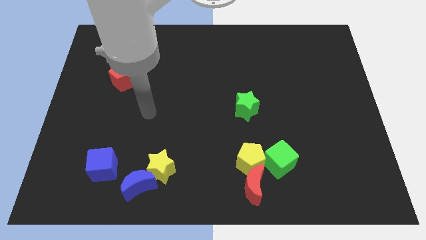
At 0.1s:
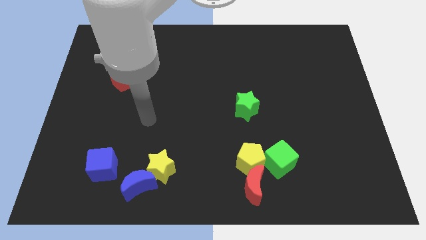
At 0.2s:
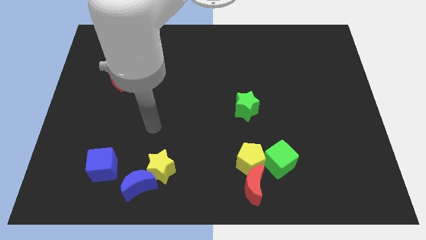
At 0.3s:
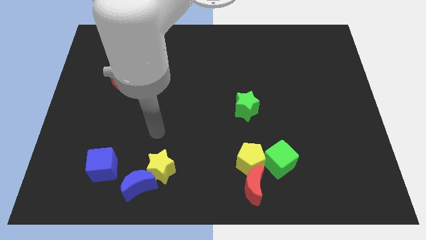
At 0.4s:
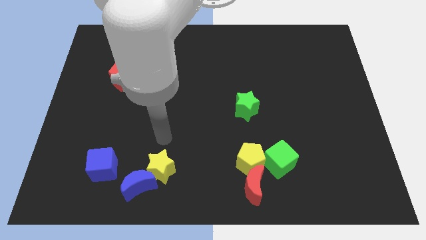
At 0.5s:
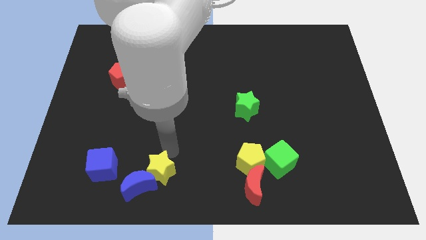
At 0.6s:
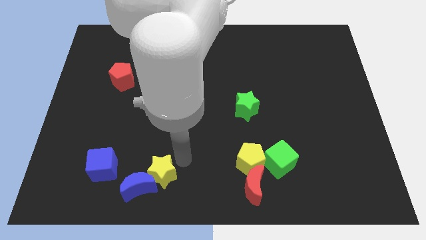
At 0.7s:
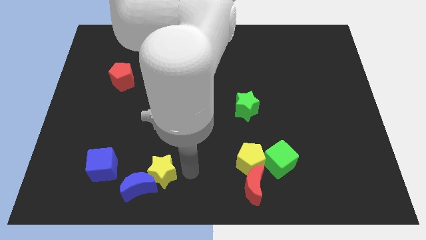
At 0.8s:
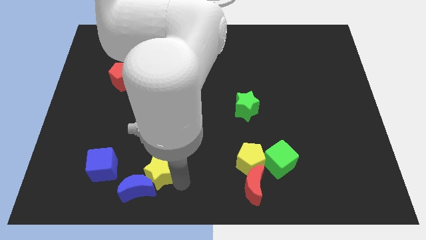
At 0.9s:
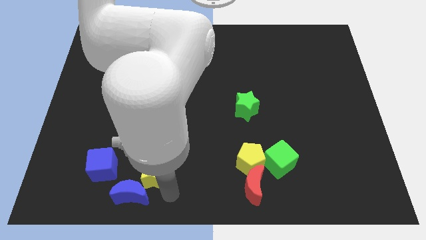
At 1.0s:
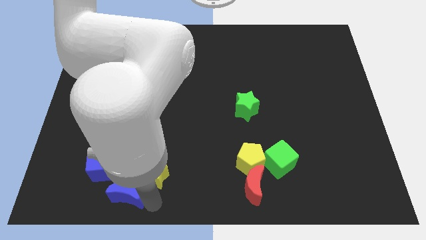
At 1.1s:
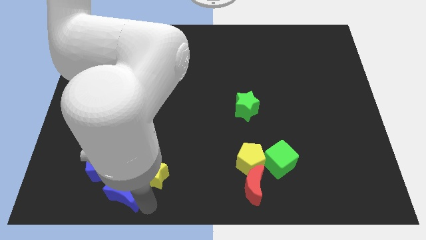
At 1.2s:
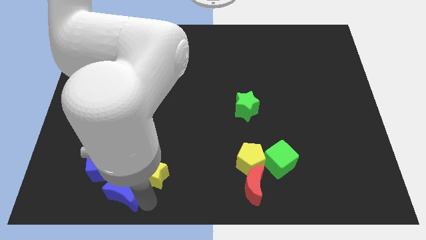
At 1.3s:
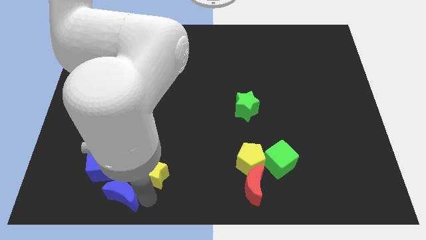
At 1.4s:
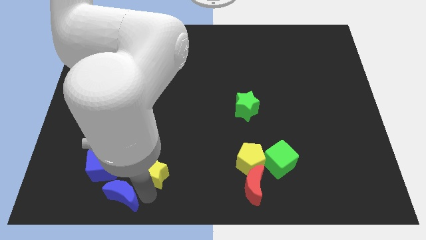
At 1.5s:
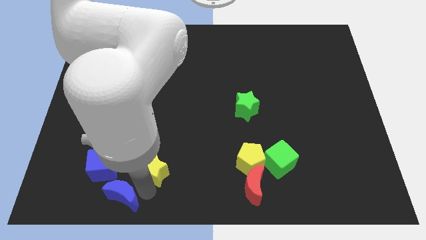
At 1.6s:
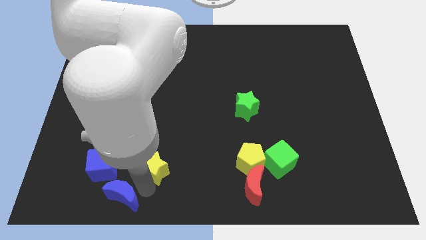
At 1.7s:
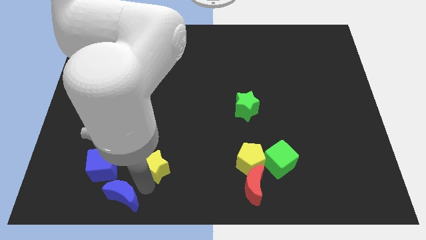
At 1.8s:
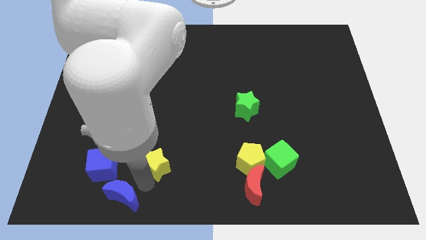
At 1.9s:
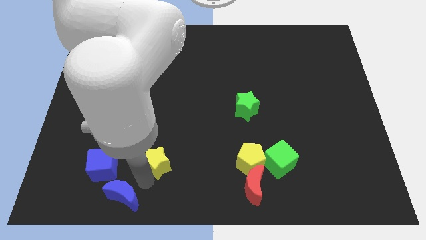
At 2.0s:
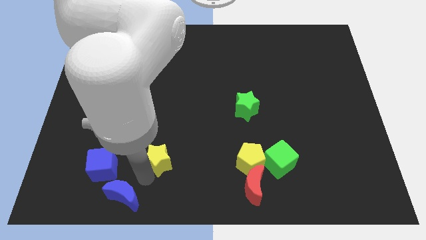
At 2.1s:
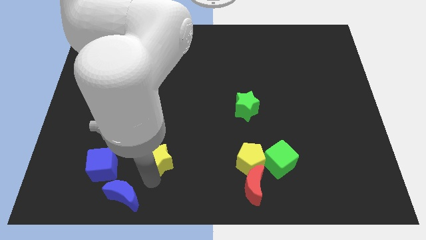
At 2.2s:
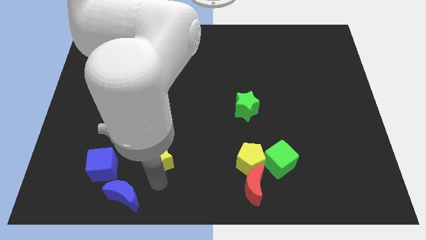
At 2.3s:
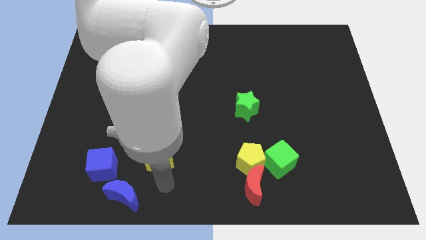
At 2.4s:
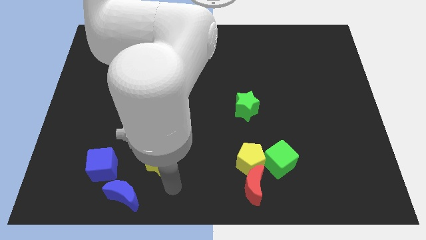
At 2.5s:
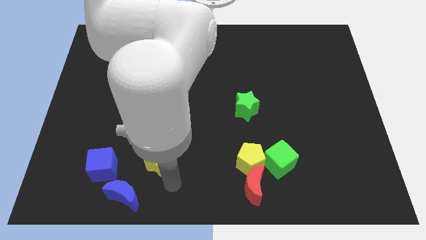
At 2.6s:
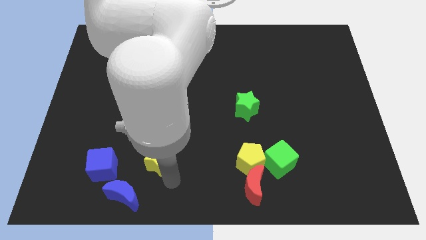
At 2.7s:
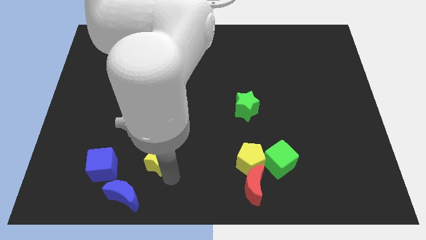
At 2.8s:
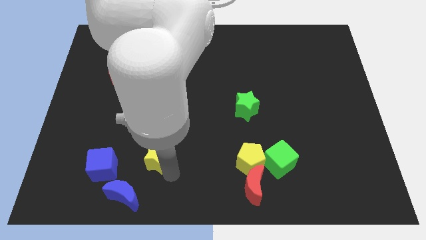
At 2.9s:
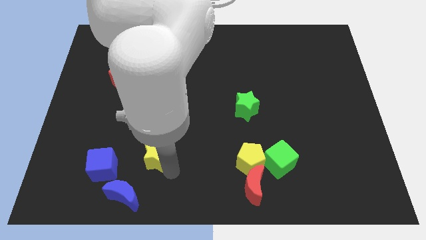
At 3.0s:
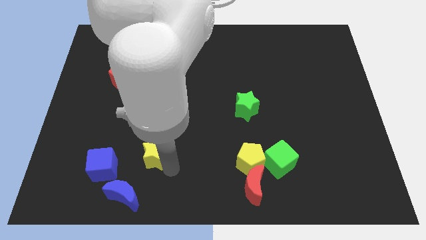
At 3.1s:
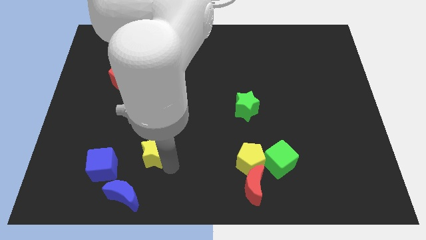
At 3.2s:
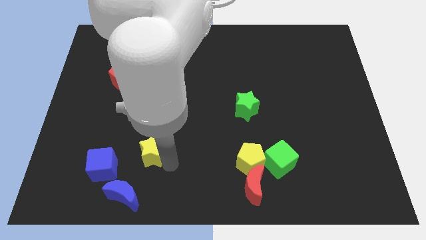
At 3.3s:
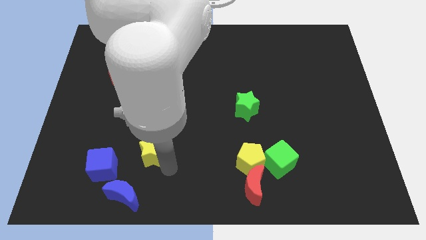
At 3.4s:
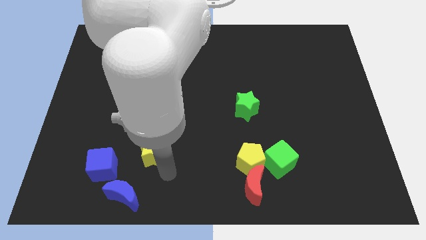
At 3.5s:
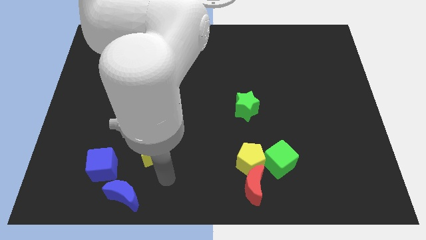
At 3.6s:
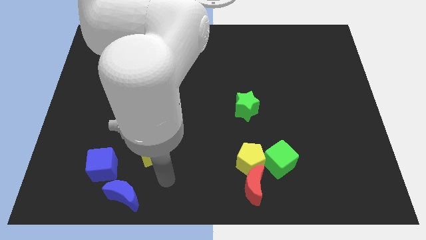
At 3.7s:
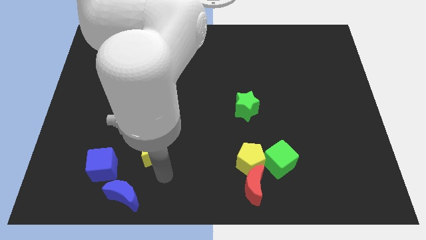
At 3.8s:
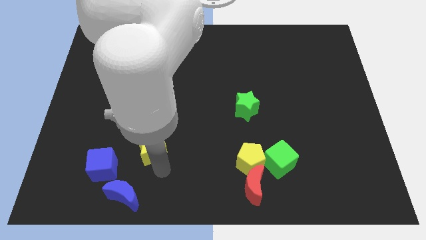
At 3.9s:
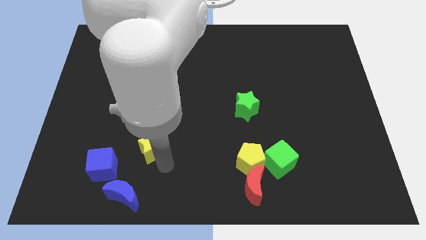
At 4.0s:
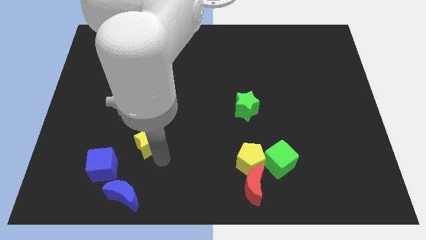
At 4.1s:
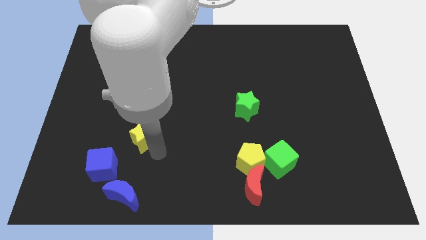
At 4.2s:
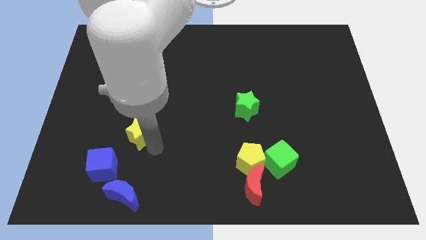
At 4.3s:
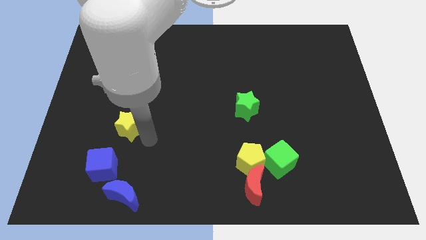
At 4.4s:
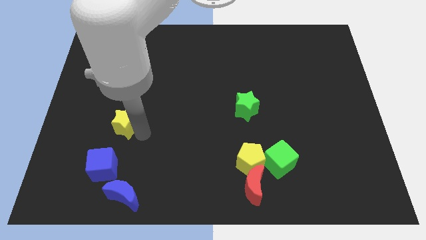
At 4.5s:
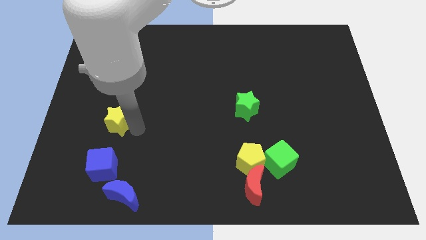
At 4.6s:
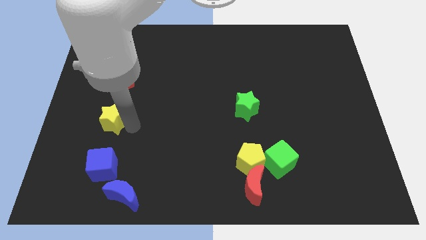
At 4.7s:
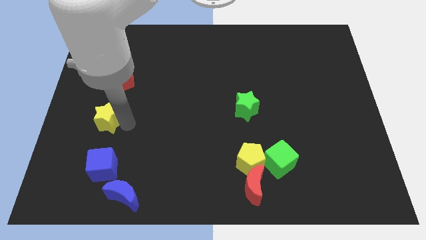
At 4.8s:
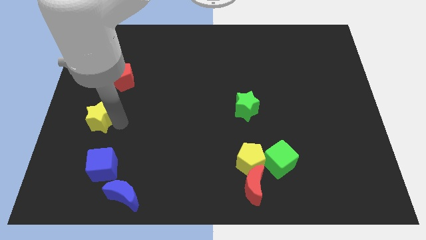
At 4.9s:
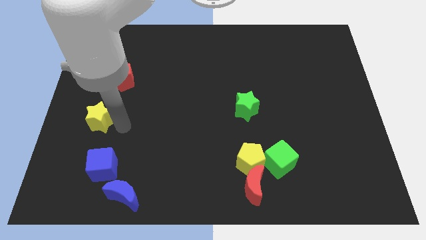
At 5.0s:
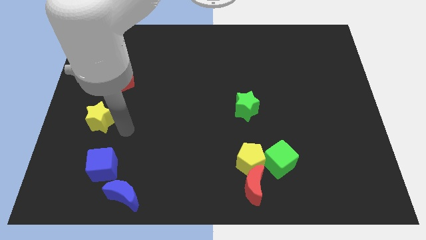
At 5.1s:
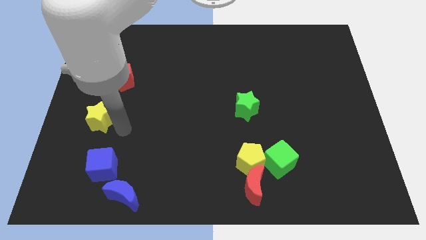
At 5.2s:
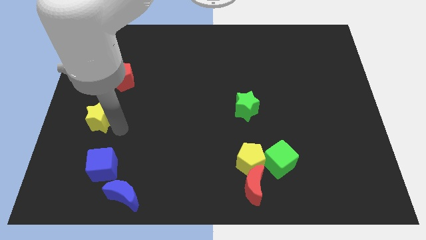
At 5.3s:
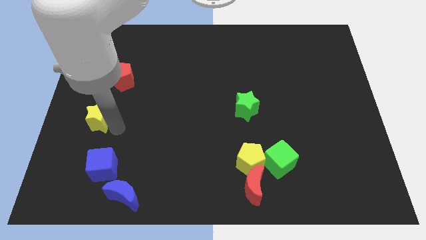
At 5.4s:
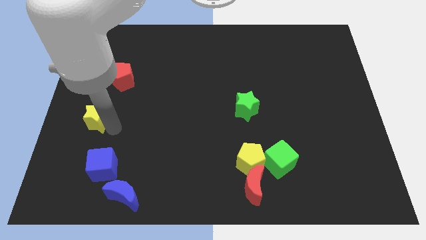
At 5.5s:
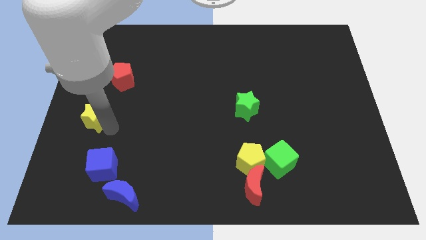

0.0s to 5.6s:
push the yellow star to the center left

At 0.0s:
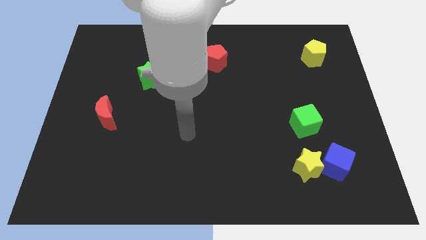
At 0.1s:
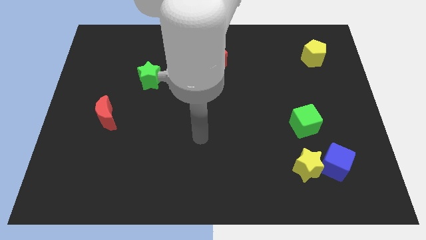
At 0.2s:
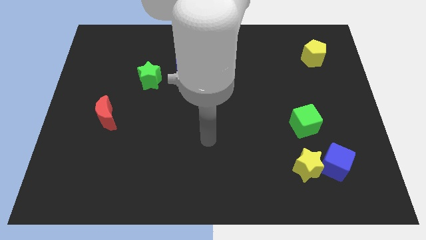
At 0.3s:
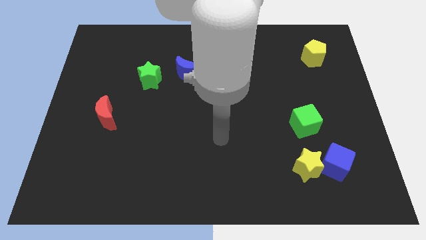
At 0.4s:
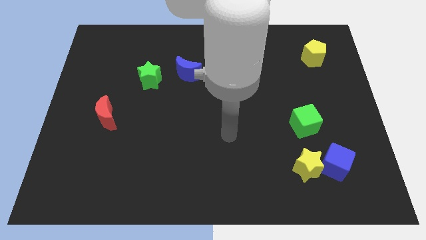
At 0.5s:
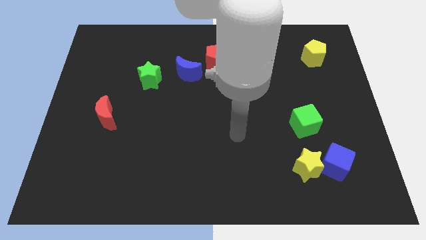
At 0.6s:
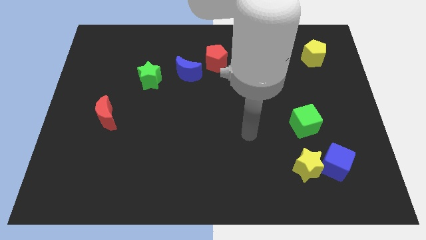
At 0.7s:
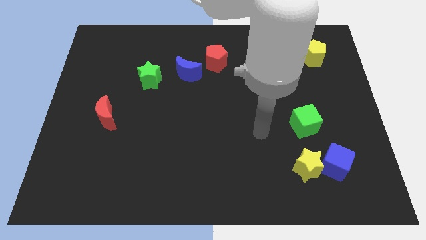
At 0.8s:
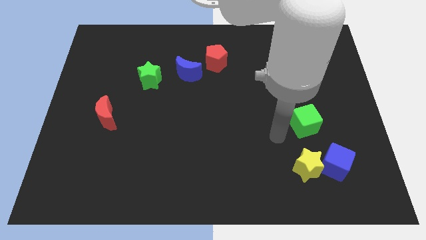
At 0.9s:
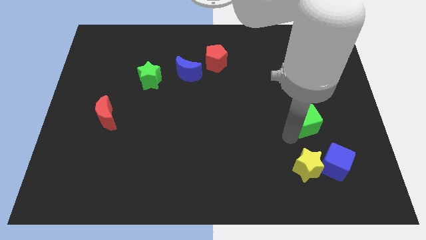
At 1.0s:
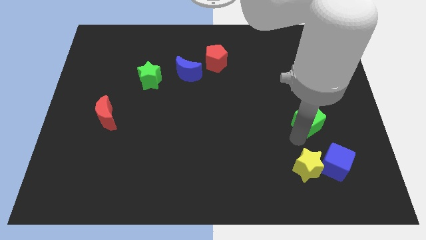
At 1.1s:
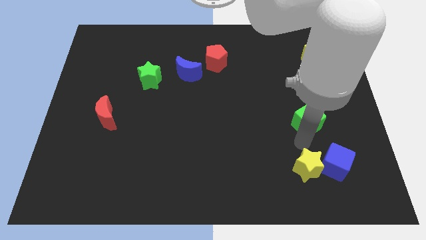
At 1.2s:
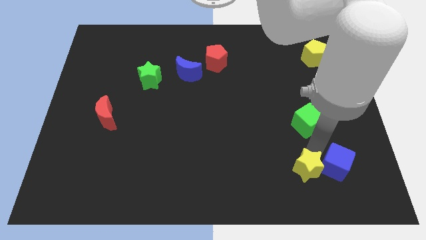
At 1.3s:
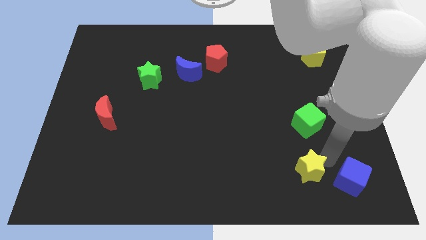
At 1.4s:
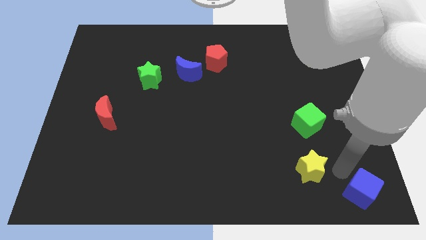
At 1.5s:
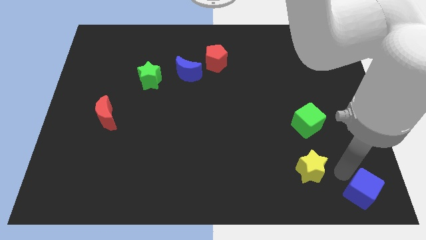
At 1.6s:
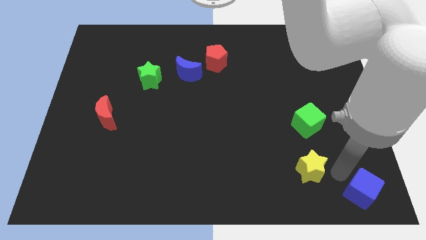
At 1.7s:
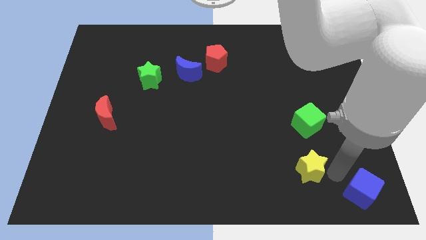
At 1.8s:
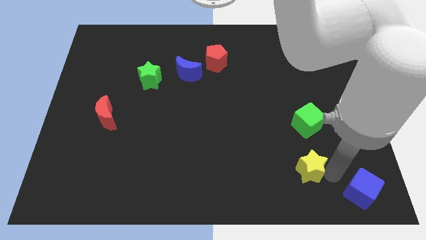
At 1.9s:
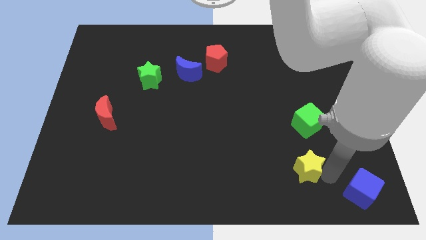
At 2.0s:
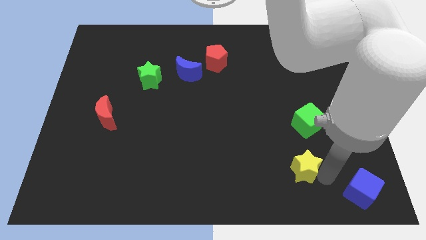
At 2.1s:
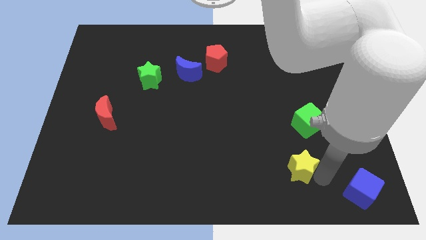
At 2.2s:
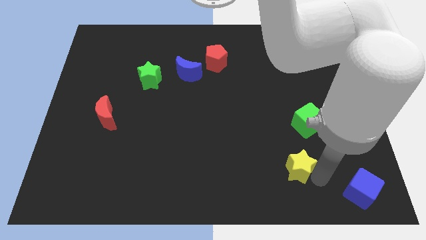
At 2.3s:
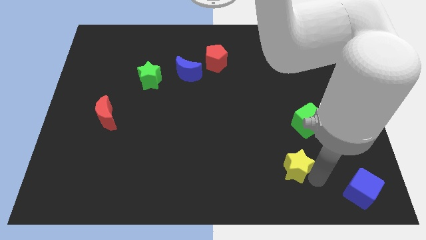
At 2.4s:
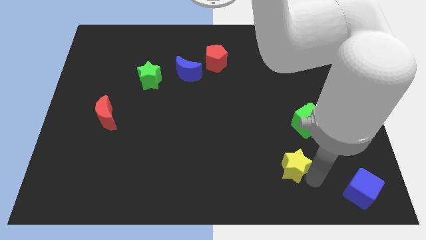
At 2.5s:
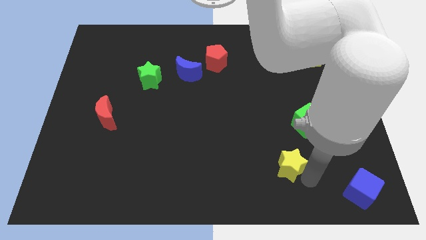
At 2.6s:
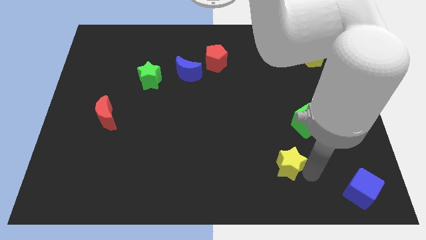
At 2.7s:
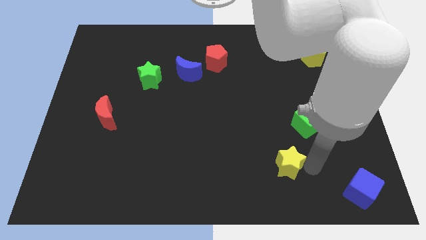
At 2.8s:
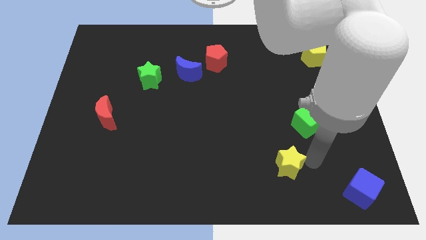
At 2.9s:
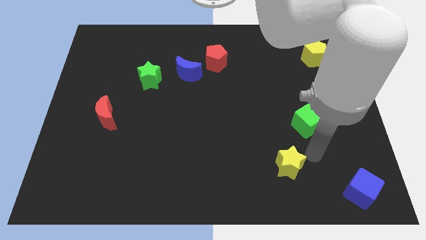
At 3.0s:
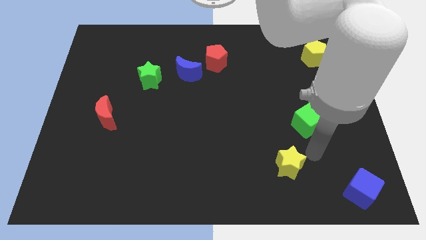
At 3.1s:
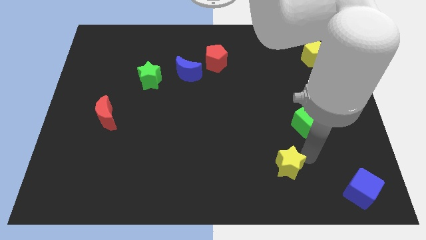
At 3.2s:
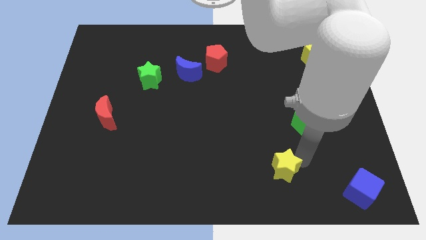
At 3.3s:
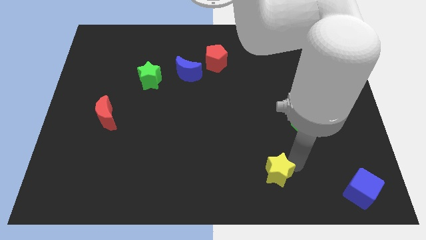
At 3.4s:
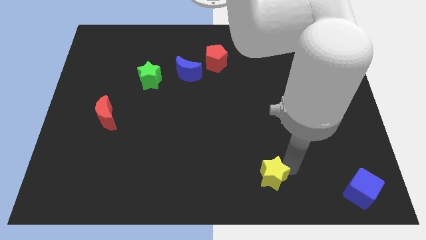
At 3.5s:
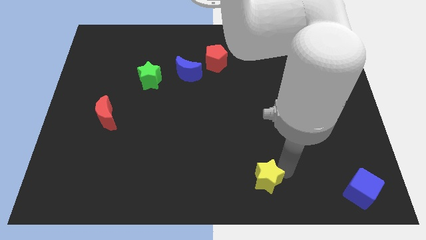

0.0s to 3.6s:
move the yellow star to the bottom
